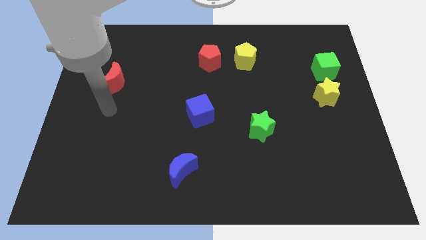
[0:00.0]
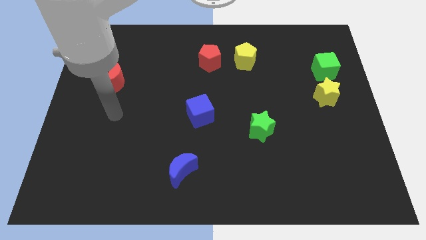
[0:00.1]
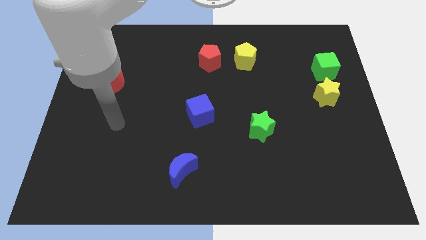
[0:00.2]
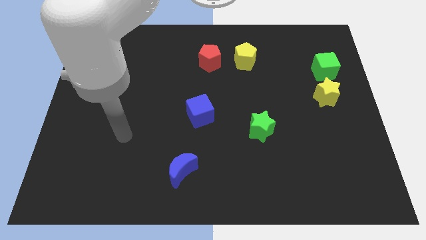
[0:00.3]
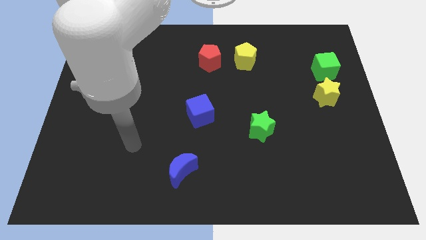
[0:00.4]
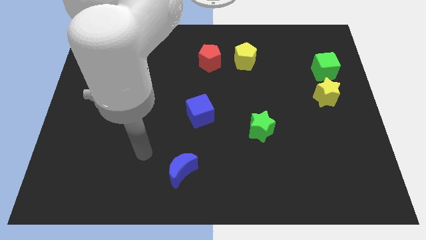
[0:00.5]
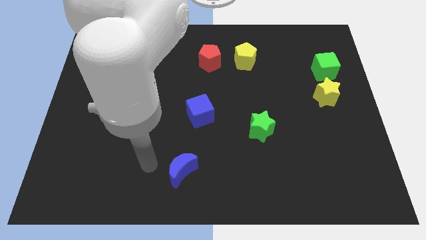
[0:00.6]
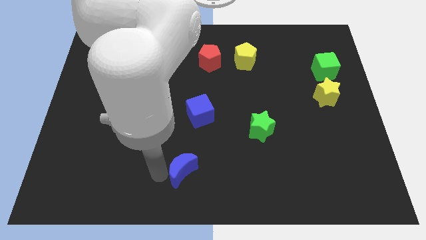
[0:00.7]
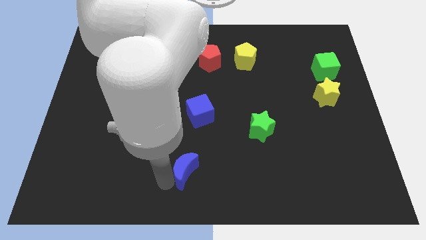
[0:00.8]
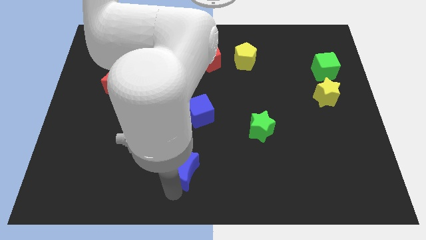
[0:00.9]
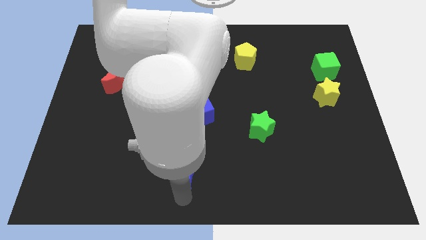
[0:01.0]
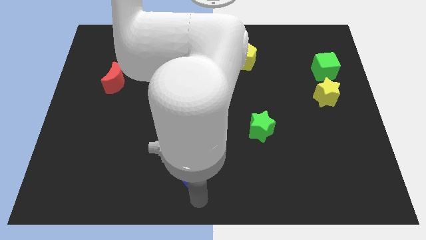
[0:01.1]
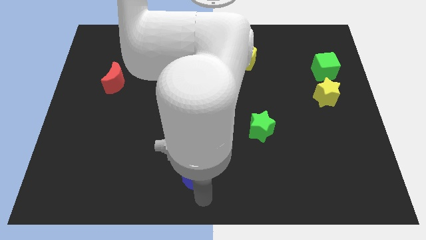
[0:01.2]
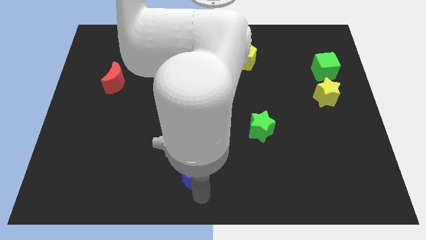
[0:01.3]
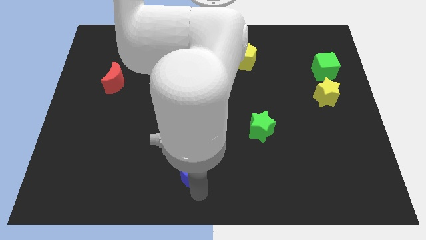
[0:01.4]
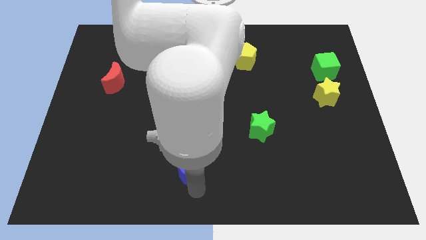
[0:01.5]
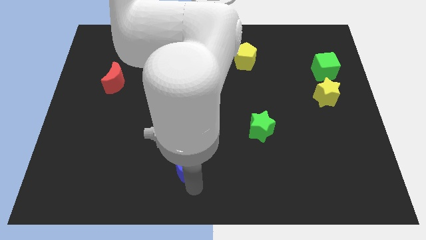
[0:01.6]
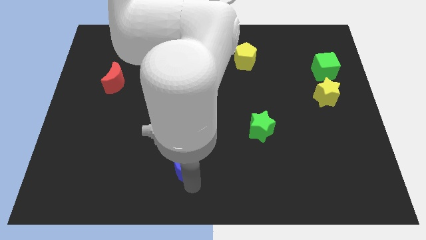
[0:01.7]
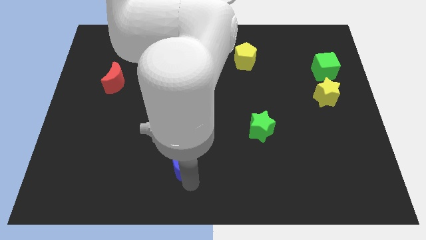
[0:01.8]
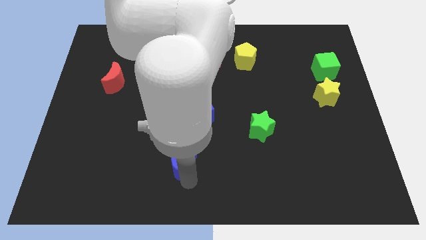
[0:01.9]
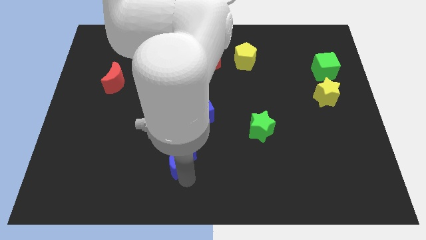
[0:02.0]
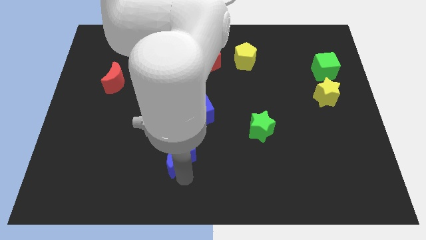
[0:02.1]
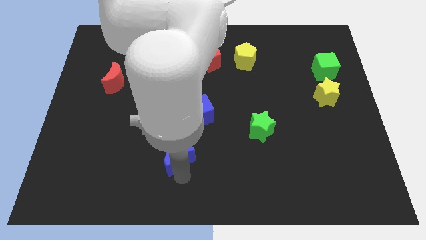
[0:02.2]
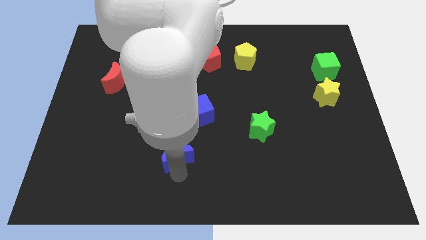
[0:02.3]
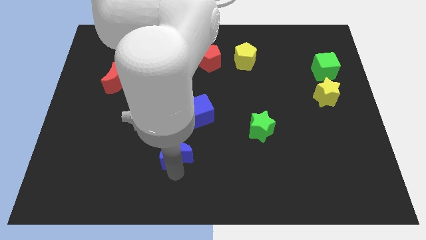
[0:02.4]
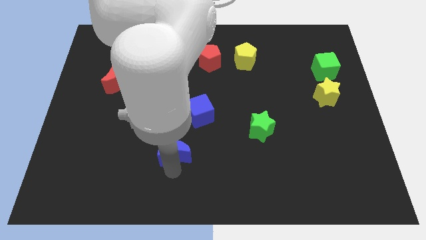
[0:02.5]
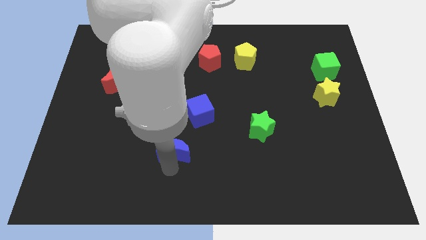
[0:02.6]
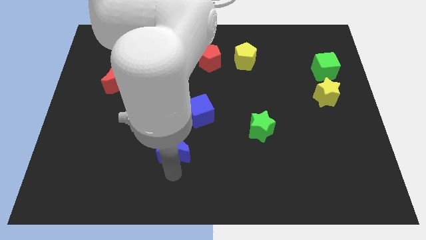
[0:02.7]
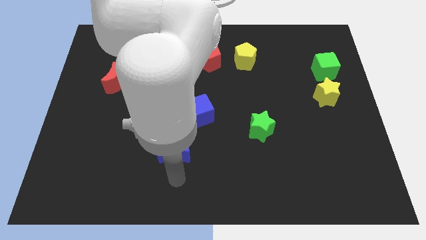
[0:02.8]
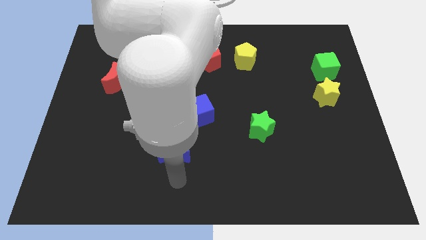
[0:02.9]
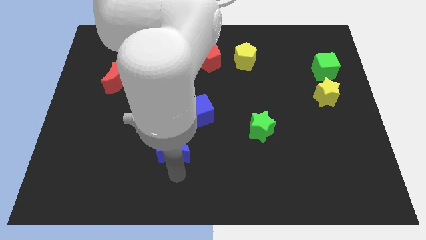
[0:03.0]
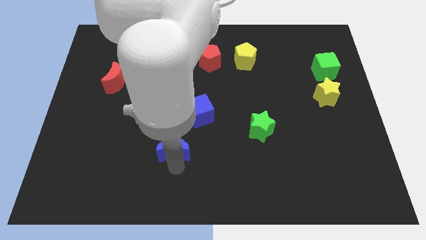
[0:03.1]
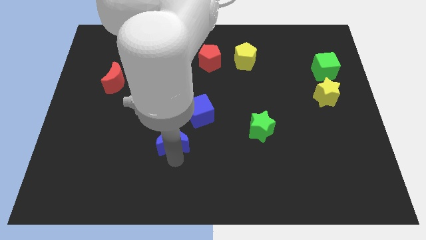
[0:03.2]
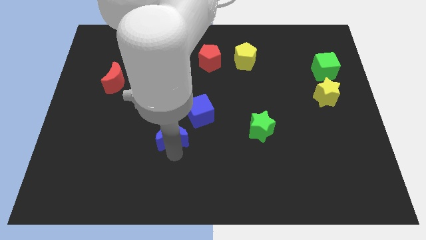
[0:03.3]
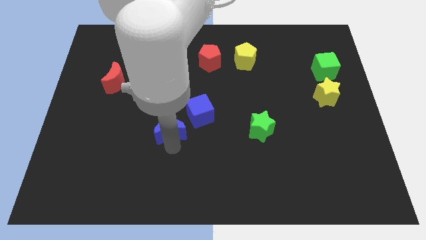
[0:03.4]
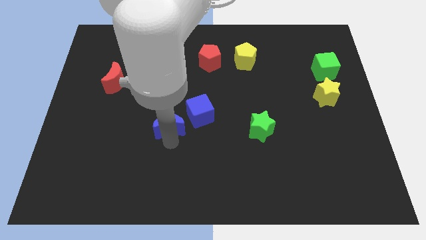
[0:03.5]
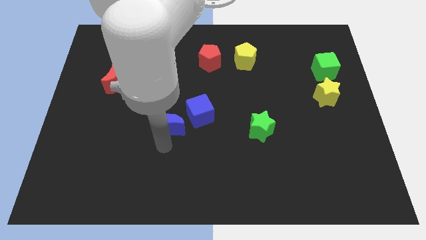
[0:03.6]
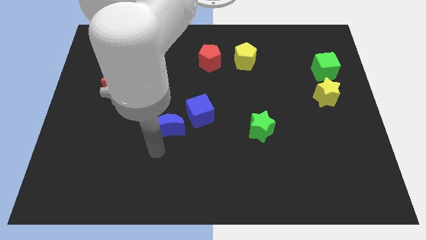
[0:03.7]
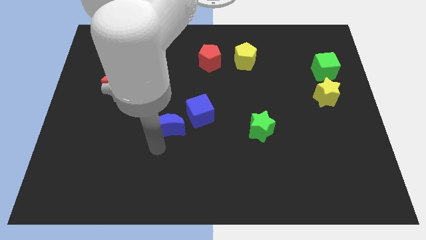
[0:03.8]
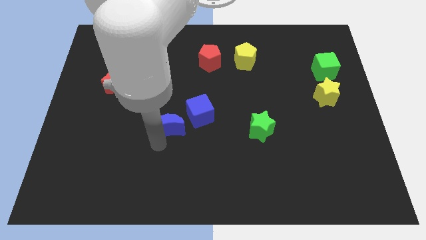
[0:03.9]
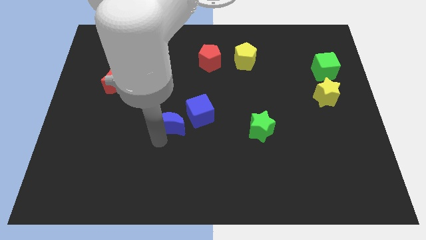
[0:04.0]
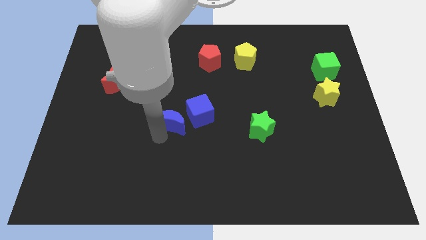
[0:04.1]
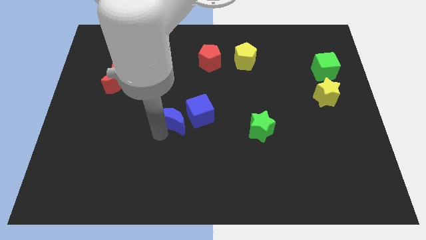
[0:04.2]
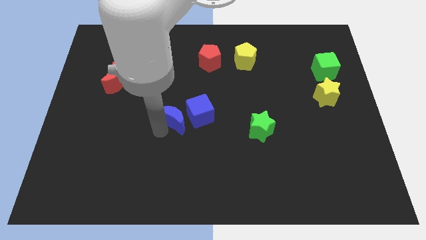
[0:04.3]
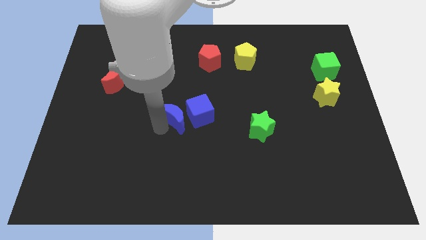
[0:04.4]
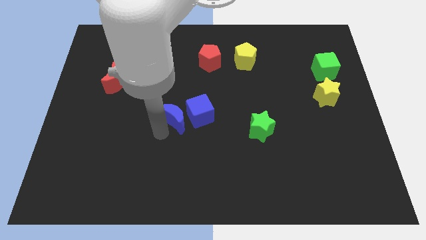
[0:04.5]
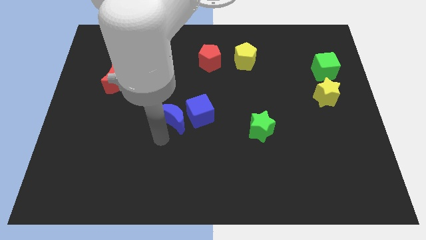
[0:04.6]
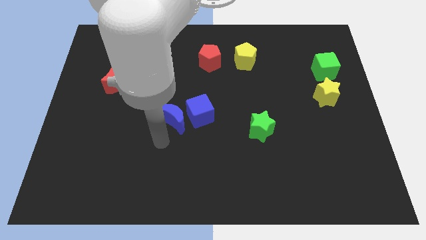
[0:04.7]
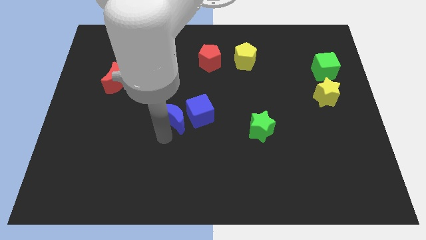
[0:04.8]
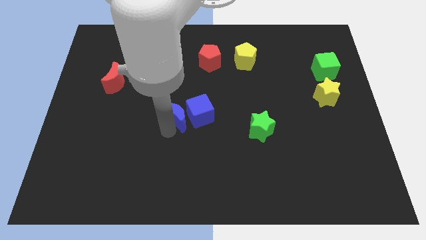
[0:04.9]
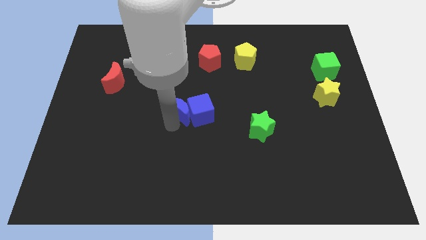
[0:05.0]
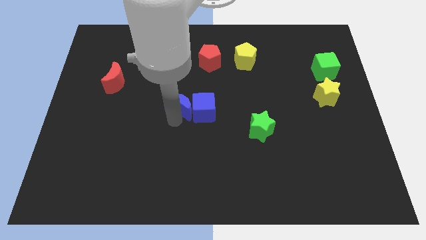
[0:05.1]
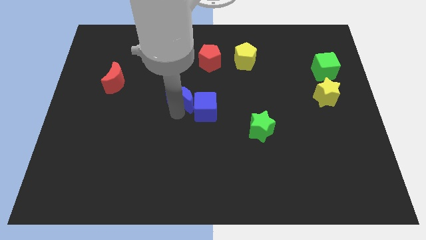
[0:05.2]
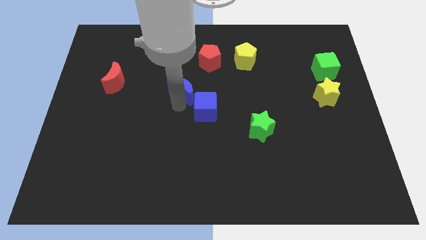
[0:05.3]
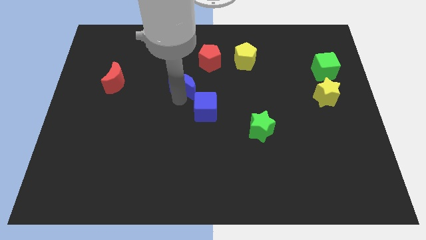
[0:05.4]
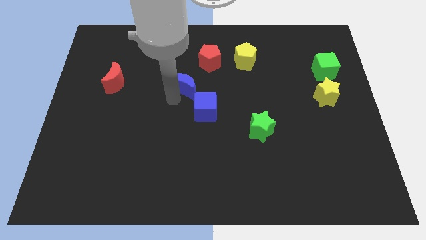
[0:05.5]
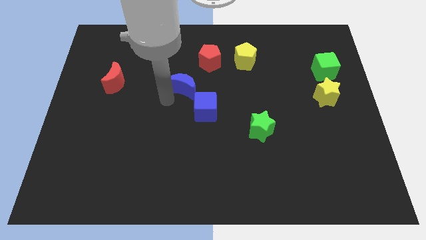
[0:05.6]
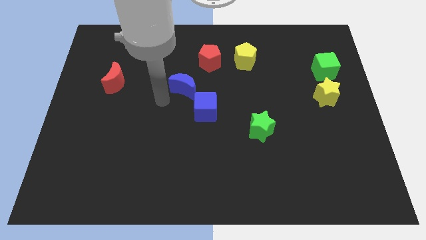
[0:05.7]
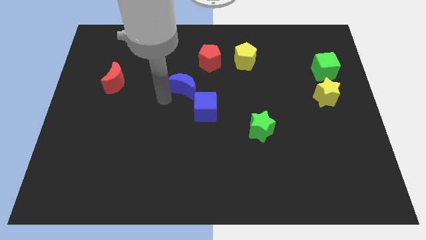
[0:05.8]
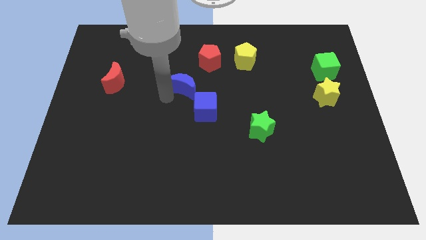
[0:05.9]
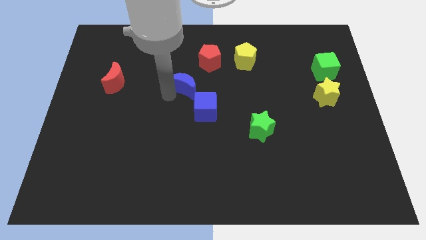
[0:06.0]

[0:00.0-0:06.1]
push the blue moon to the top of the blue cube

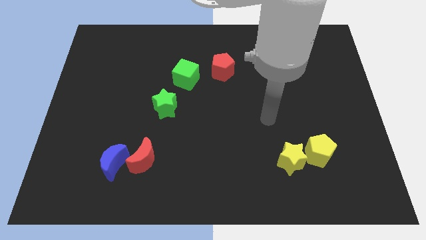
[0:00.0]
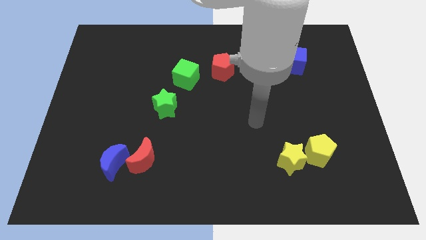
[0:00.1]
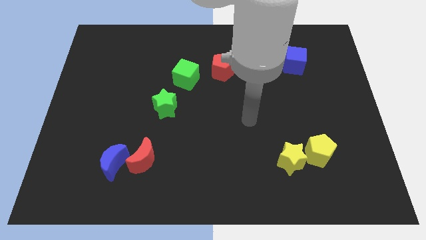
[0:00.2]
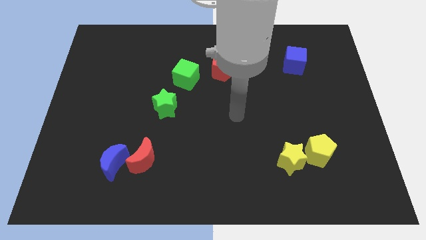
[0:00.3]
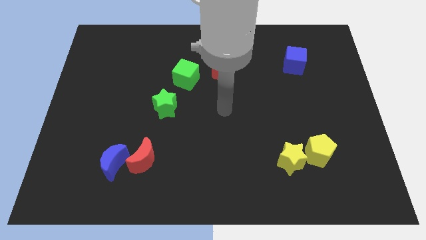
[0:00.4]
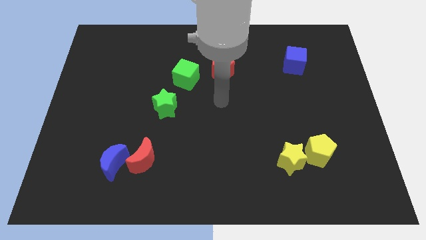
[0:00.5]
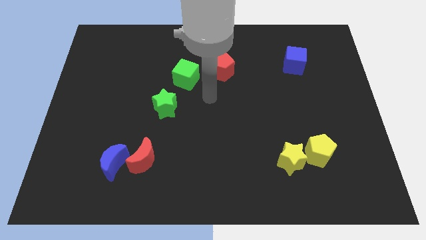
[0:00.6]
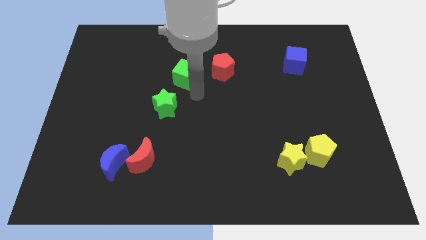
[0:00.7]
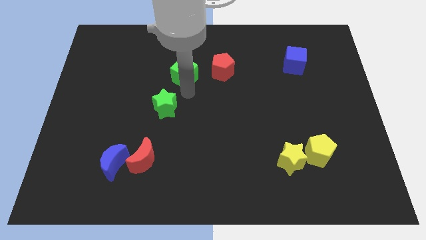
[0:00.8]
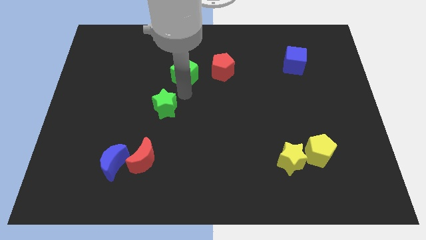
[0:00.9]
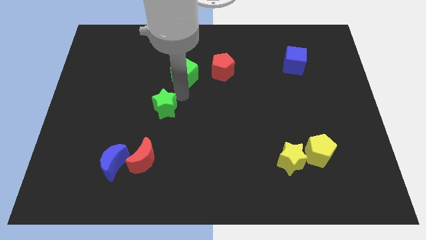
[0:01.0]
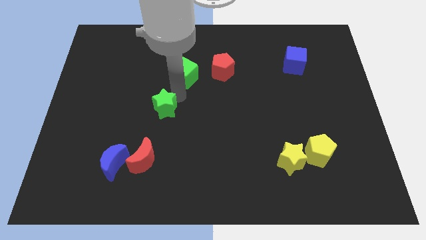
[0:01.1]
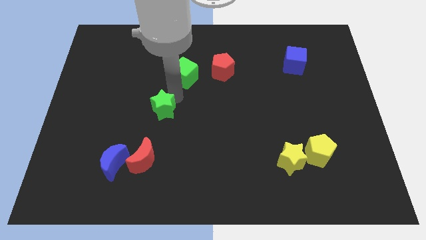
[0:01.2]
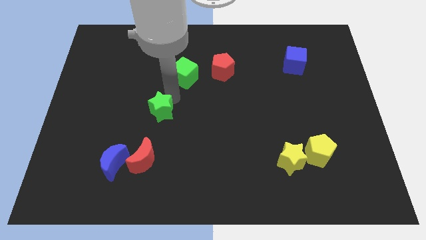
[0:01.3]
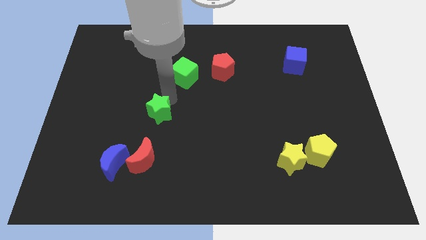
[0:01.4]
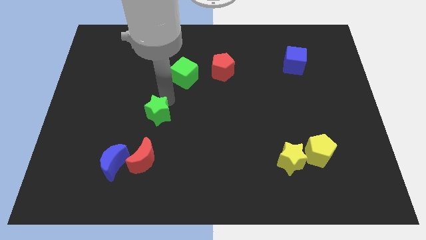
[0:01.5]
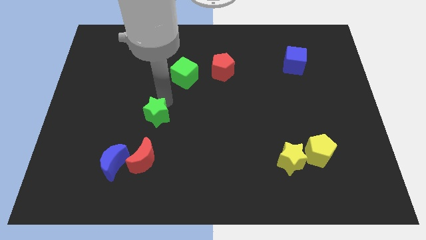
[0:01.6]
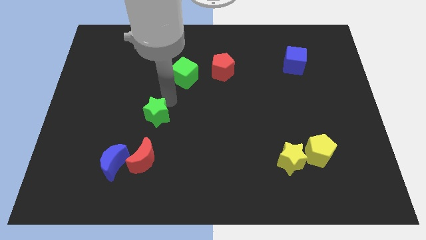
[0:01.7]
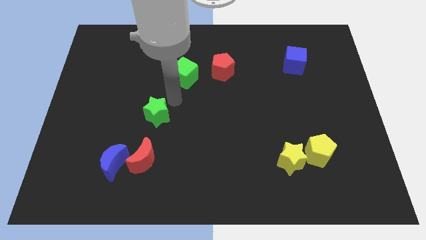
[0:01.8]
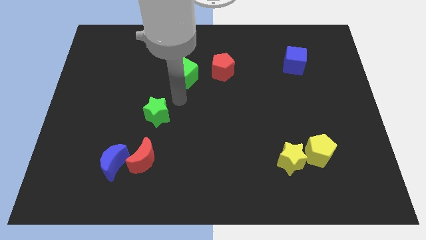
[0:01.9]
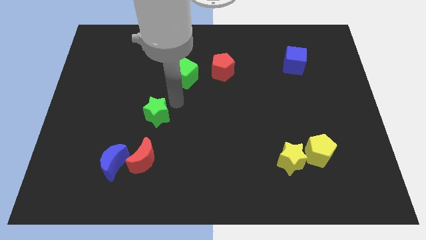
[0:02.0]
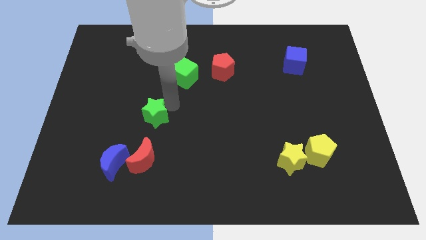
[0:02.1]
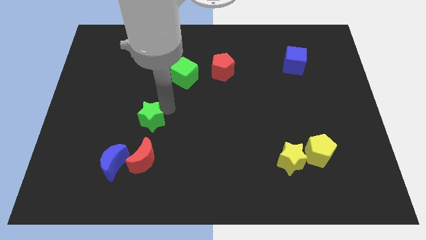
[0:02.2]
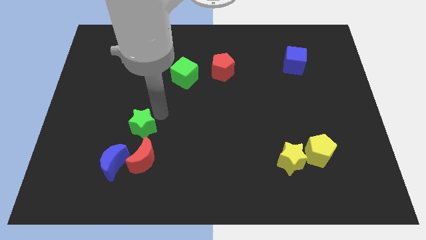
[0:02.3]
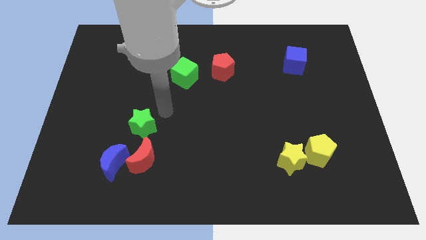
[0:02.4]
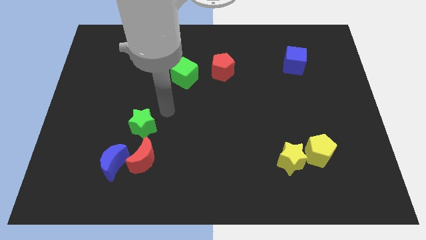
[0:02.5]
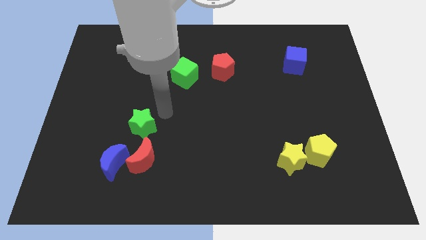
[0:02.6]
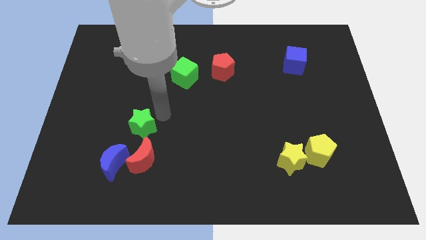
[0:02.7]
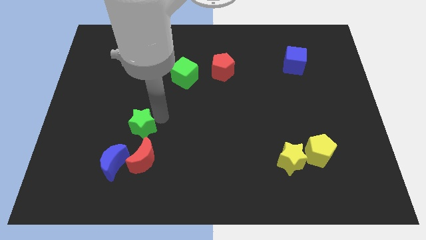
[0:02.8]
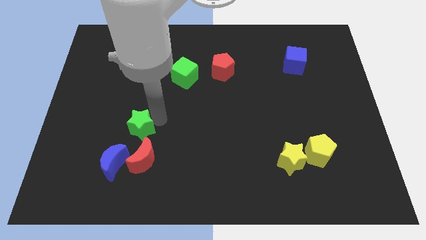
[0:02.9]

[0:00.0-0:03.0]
move the green star to the top left side of the red moon
